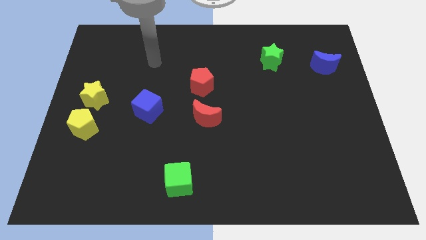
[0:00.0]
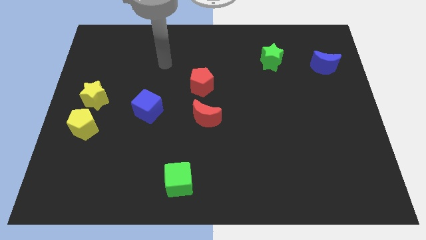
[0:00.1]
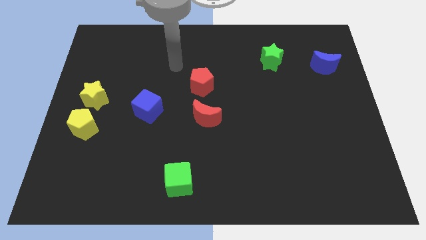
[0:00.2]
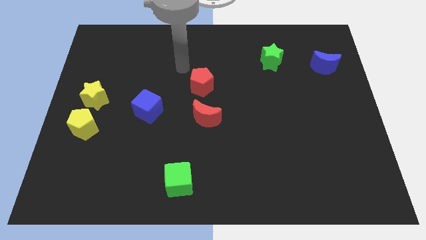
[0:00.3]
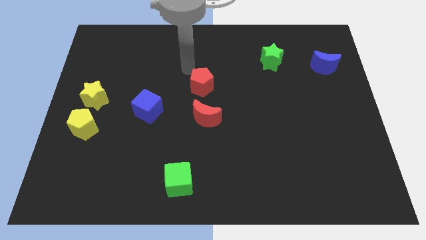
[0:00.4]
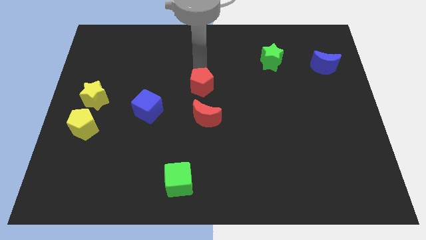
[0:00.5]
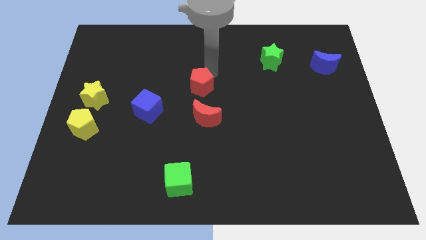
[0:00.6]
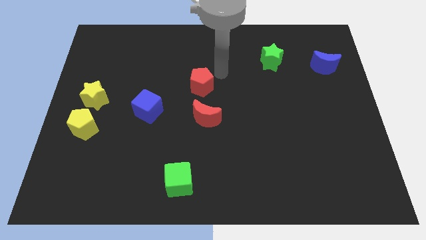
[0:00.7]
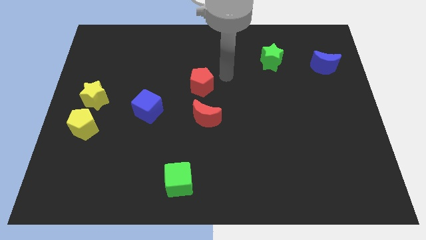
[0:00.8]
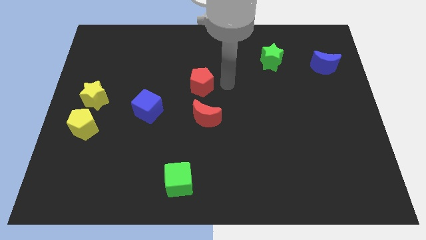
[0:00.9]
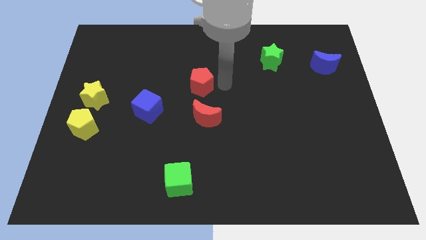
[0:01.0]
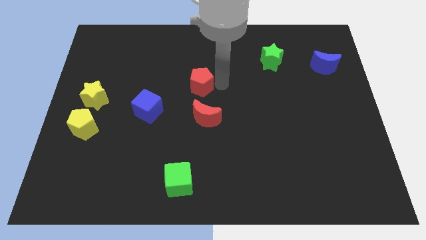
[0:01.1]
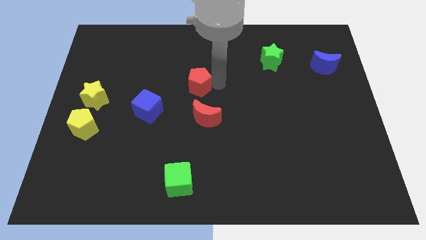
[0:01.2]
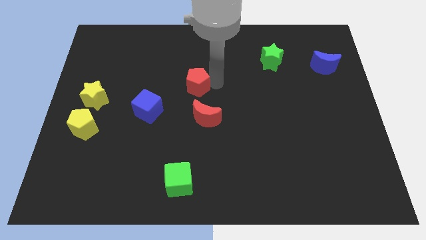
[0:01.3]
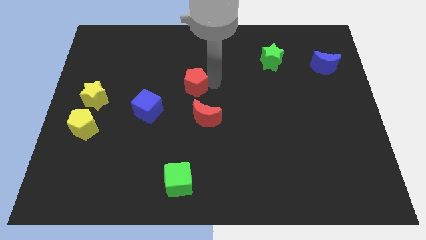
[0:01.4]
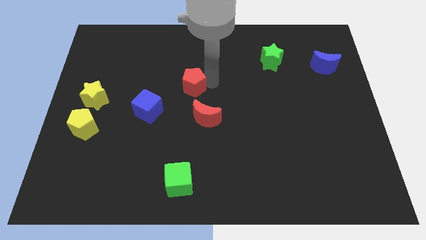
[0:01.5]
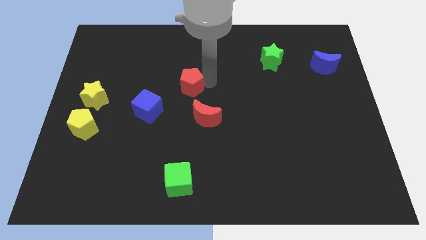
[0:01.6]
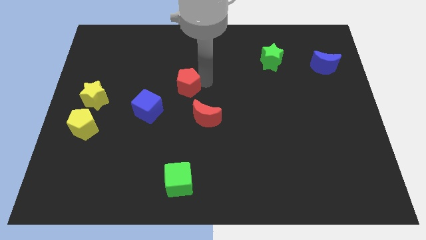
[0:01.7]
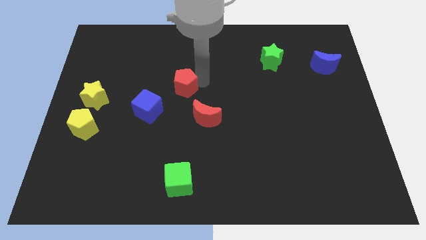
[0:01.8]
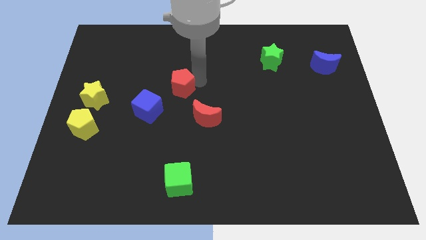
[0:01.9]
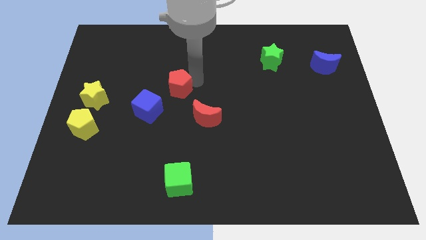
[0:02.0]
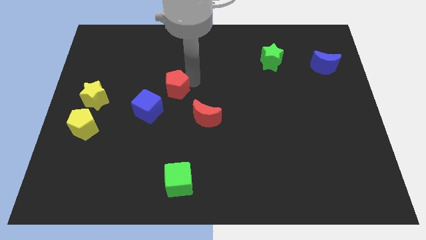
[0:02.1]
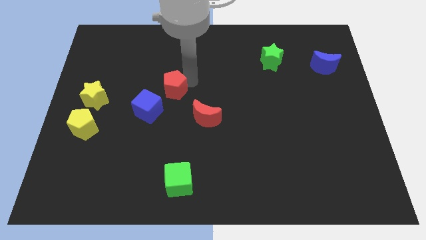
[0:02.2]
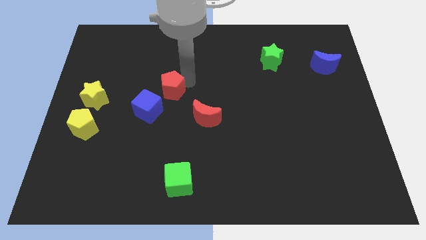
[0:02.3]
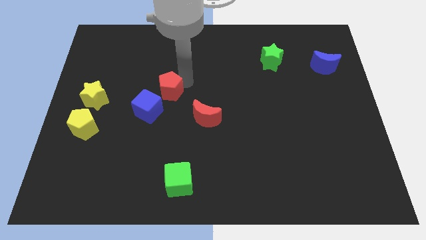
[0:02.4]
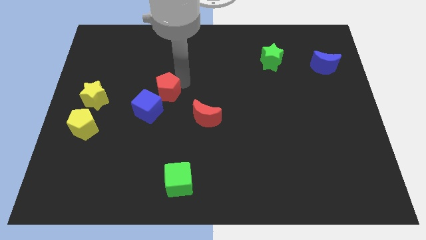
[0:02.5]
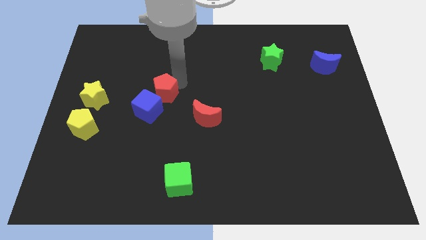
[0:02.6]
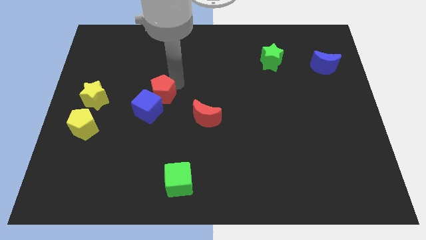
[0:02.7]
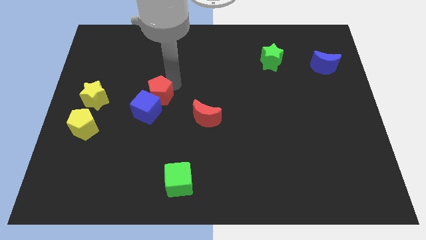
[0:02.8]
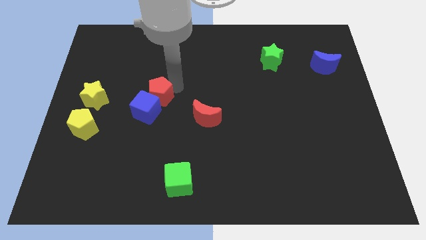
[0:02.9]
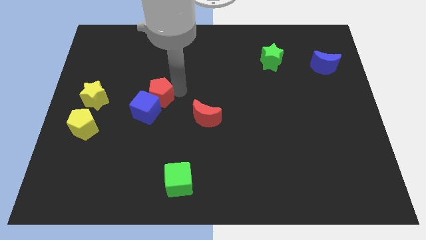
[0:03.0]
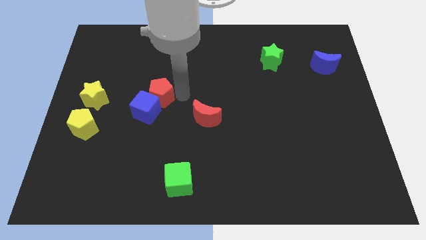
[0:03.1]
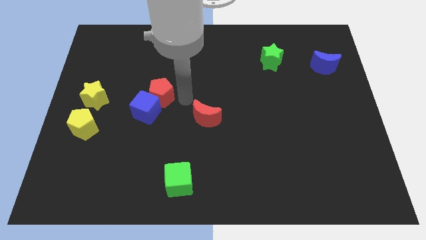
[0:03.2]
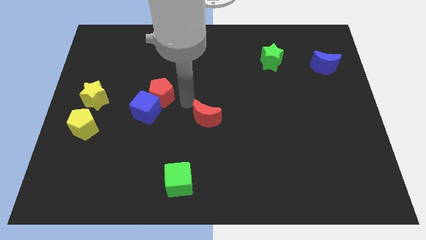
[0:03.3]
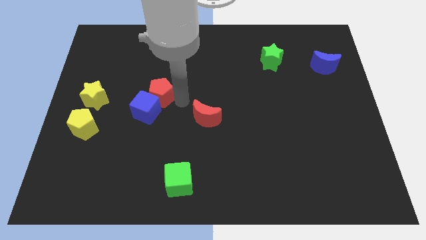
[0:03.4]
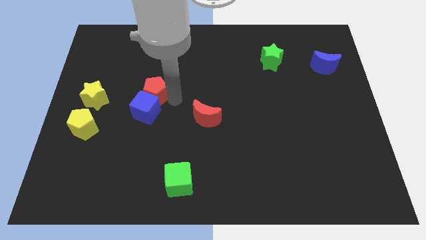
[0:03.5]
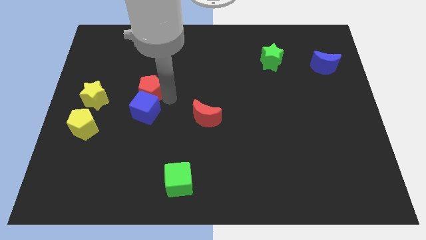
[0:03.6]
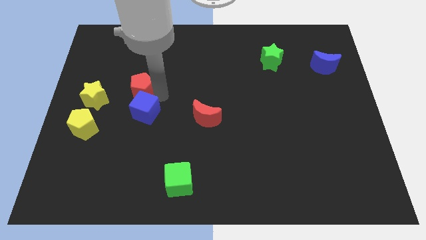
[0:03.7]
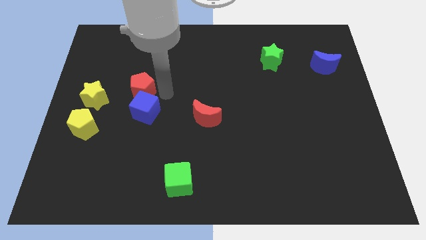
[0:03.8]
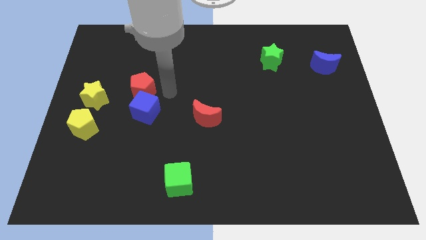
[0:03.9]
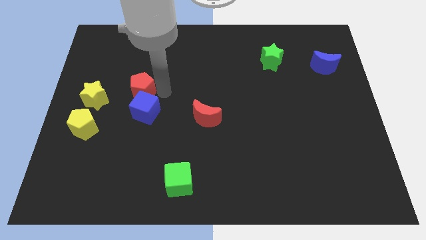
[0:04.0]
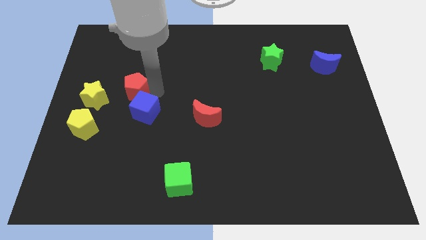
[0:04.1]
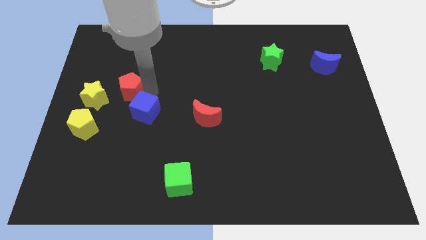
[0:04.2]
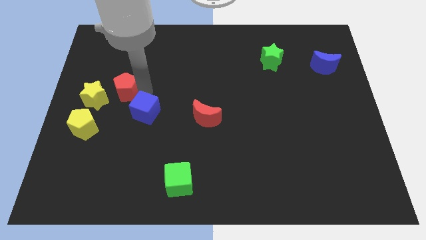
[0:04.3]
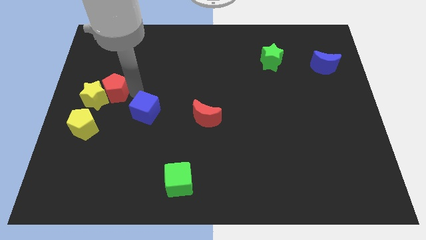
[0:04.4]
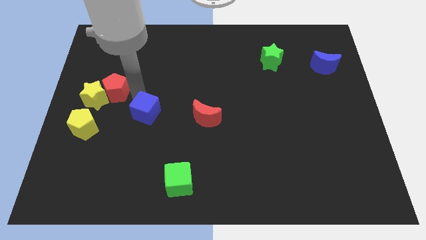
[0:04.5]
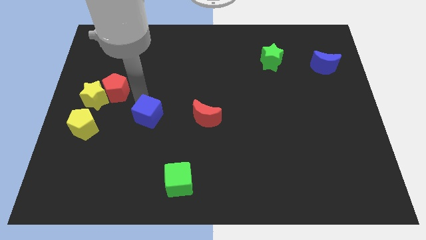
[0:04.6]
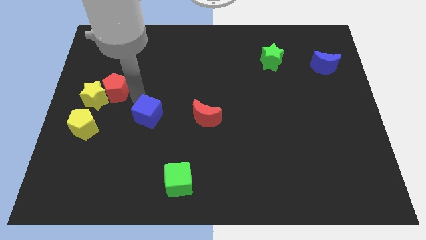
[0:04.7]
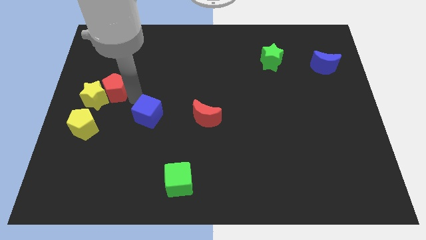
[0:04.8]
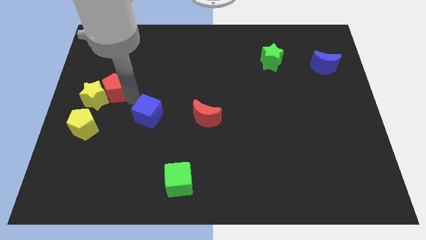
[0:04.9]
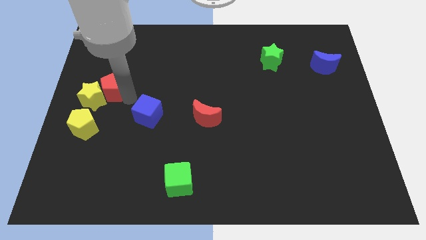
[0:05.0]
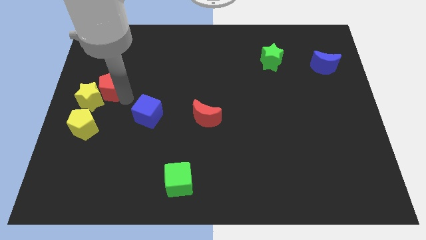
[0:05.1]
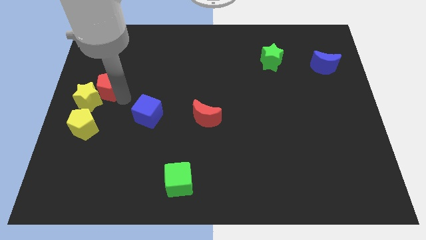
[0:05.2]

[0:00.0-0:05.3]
push the red pentagon to the left side of the board
